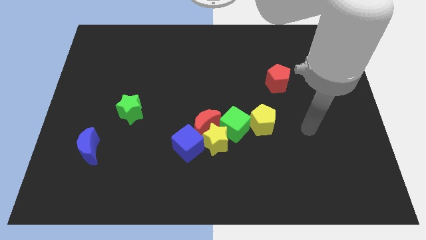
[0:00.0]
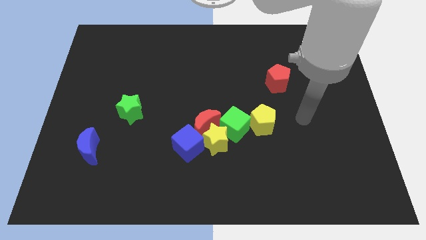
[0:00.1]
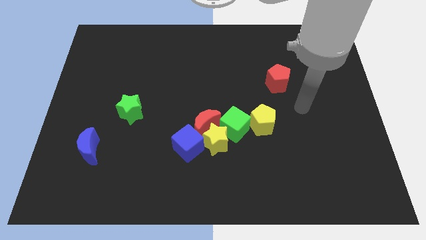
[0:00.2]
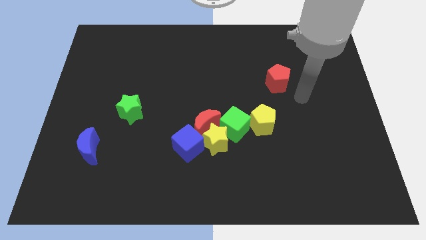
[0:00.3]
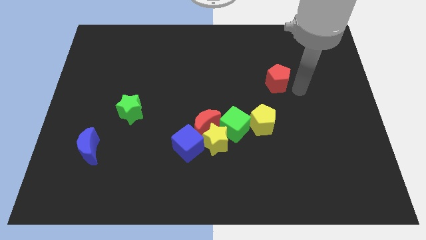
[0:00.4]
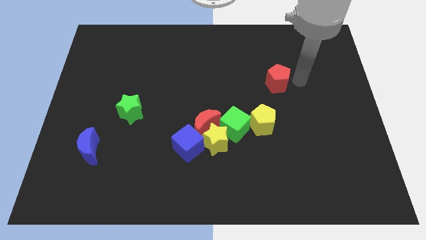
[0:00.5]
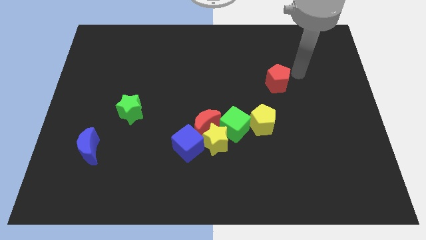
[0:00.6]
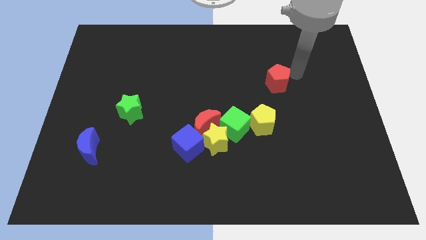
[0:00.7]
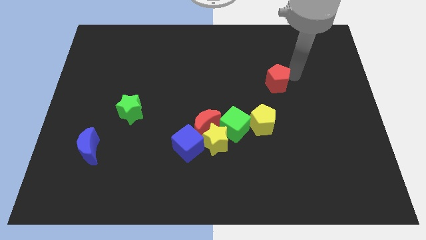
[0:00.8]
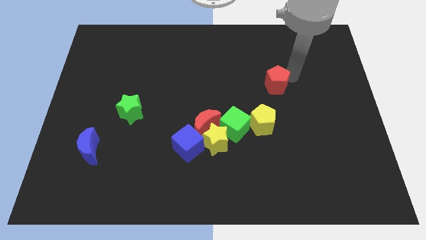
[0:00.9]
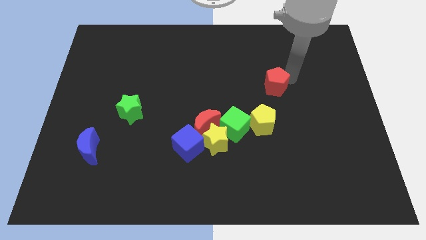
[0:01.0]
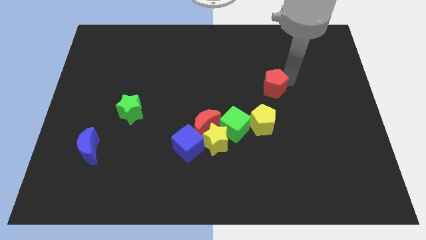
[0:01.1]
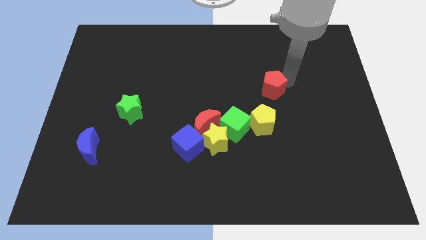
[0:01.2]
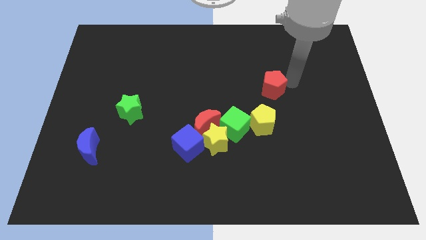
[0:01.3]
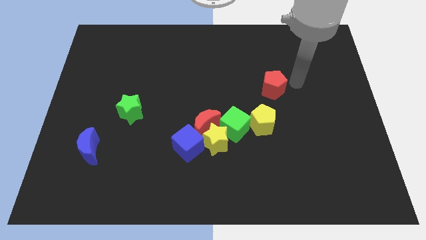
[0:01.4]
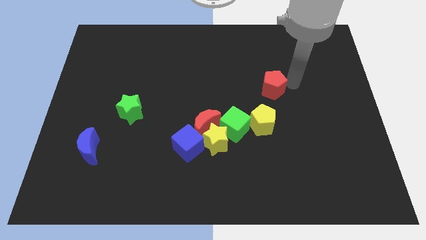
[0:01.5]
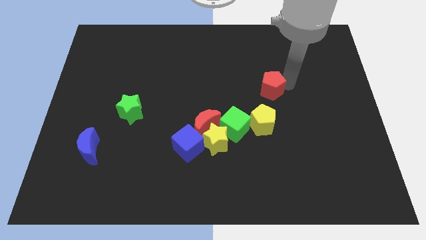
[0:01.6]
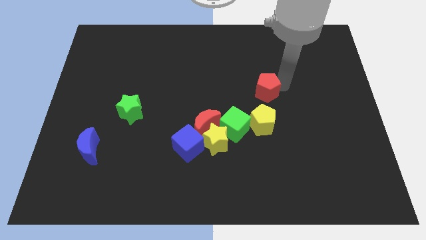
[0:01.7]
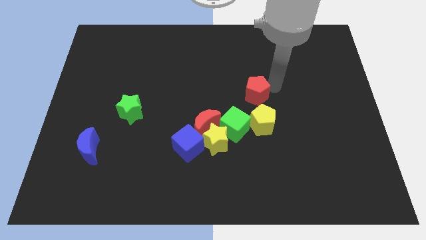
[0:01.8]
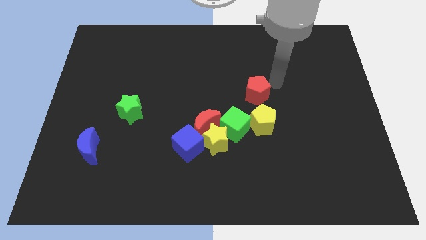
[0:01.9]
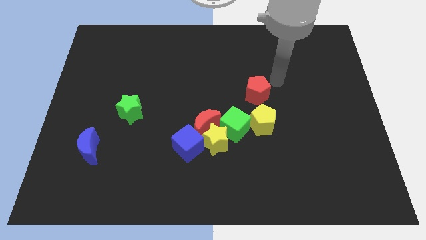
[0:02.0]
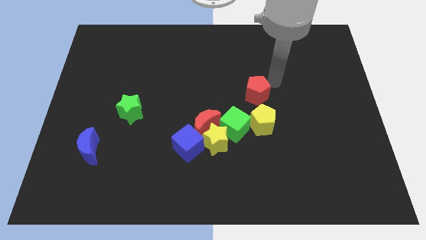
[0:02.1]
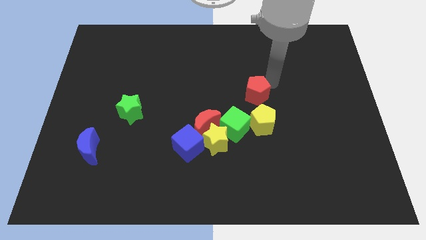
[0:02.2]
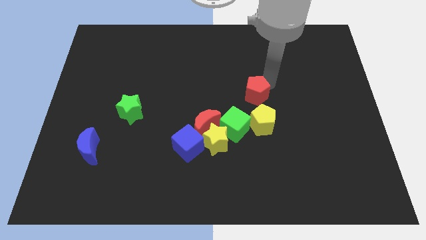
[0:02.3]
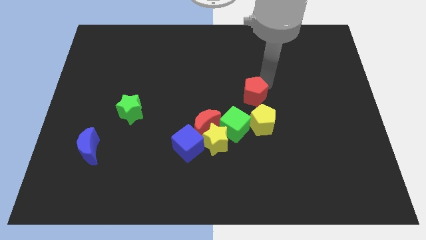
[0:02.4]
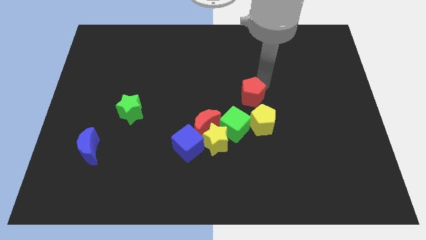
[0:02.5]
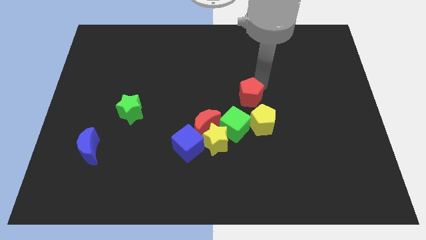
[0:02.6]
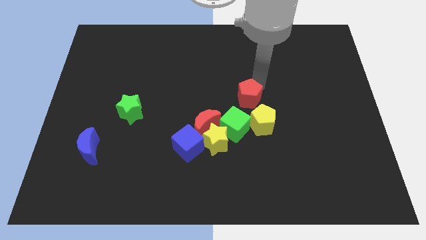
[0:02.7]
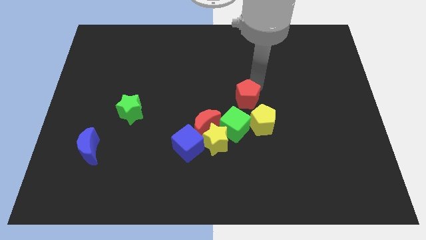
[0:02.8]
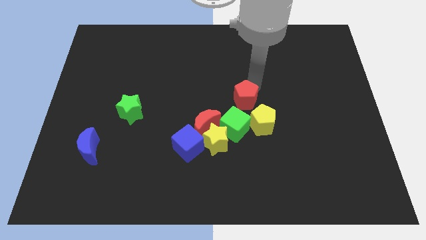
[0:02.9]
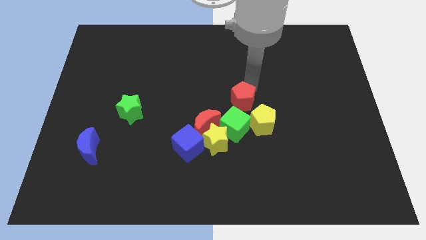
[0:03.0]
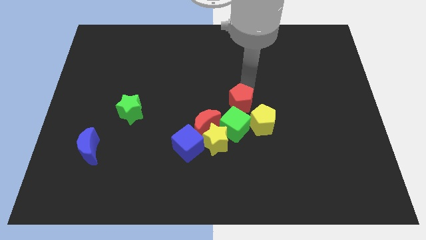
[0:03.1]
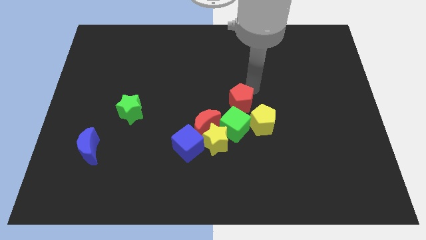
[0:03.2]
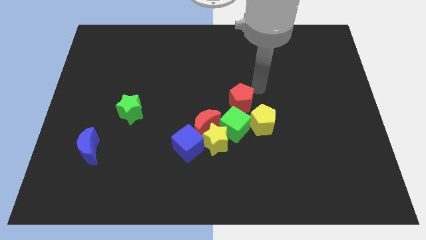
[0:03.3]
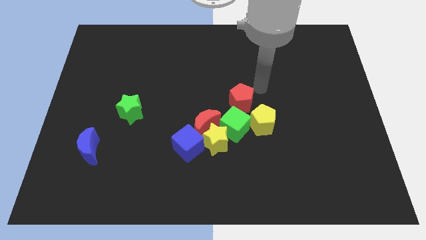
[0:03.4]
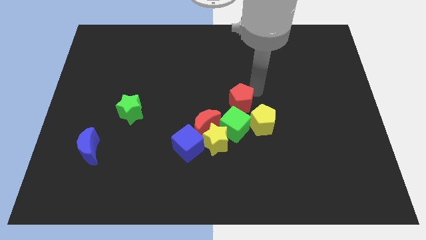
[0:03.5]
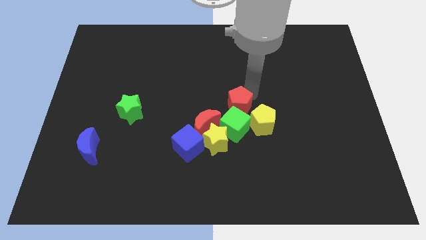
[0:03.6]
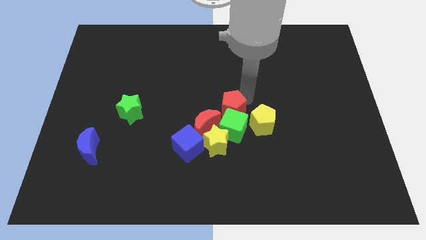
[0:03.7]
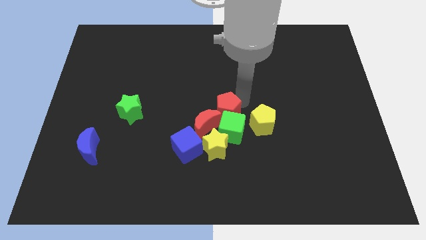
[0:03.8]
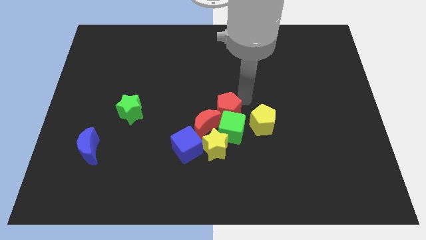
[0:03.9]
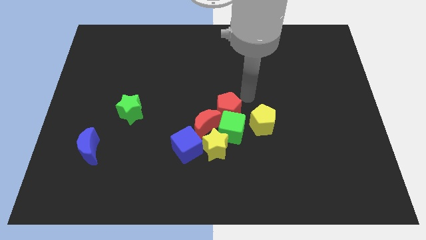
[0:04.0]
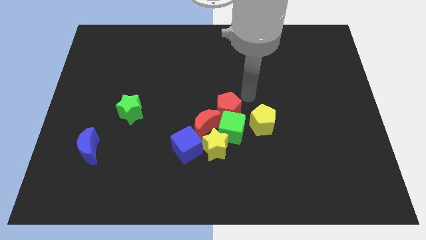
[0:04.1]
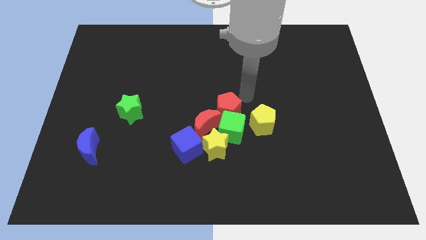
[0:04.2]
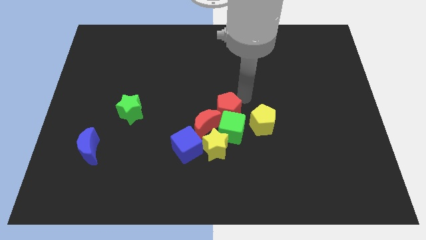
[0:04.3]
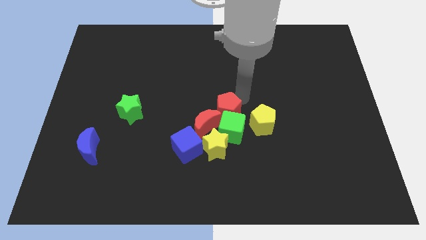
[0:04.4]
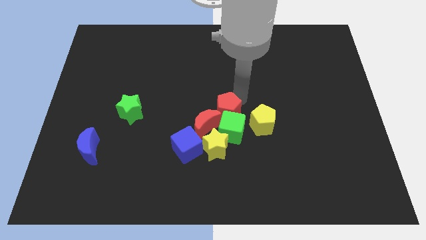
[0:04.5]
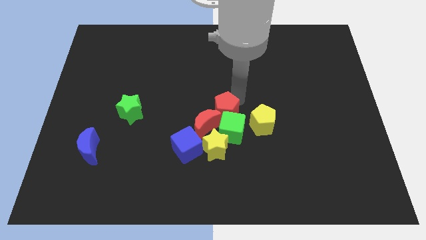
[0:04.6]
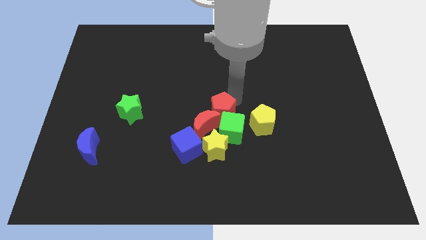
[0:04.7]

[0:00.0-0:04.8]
push the red pentagon next to the red moon

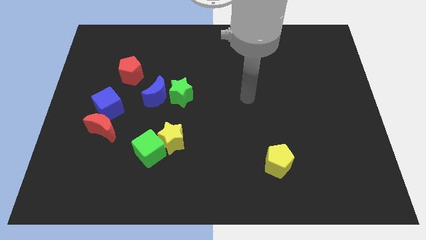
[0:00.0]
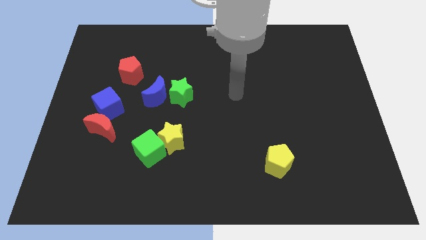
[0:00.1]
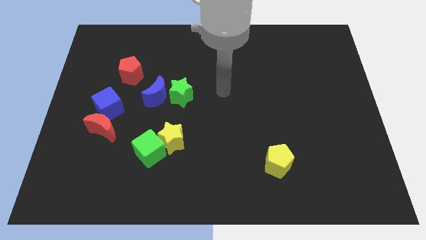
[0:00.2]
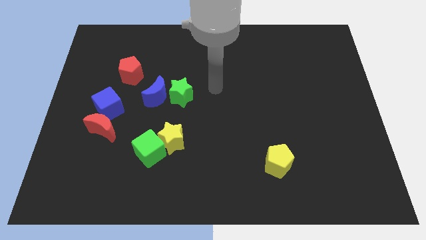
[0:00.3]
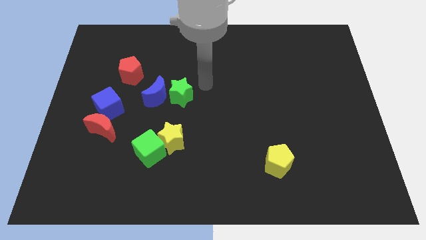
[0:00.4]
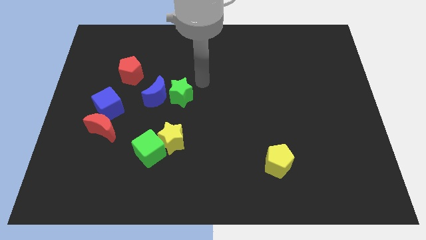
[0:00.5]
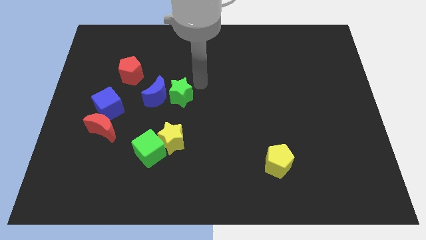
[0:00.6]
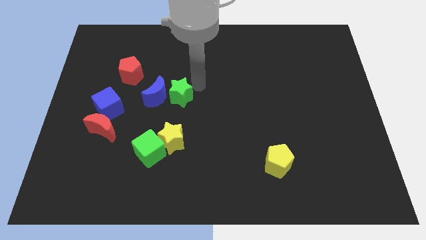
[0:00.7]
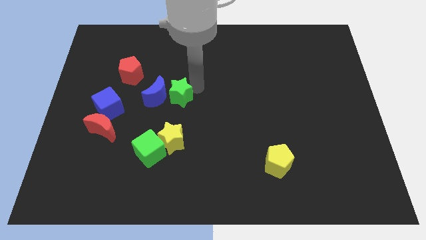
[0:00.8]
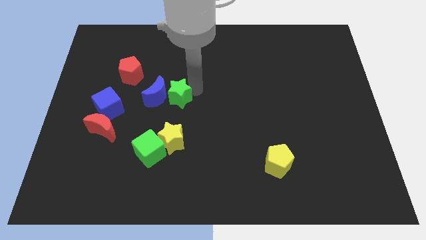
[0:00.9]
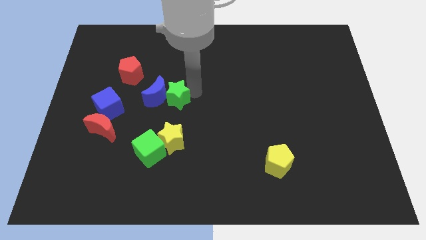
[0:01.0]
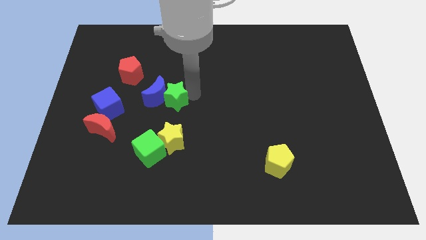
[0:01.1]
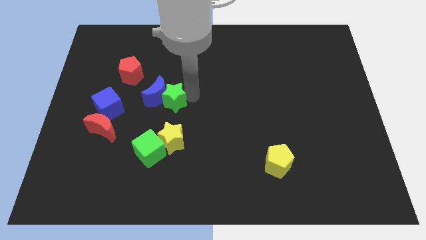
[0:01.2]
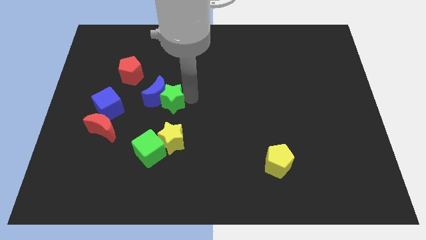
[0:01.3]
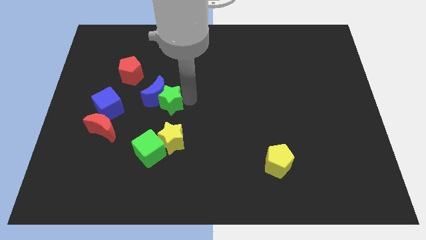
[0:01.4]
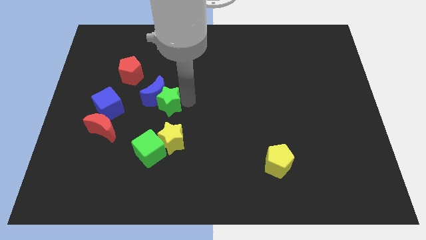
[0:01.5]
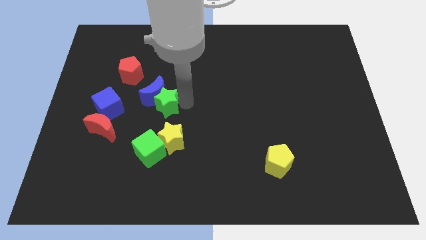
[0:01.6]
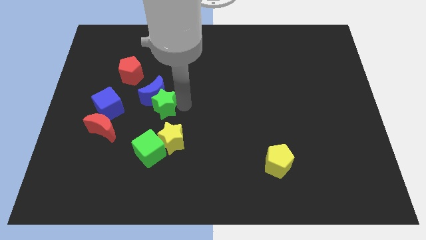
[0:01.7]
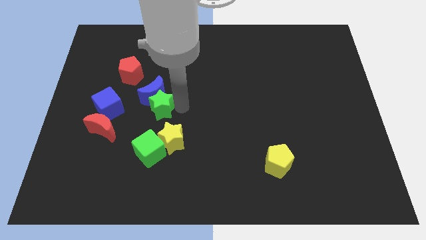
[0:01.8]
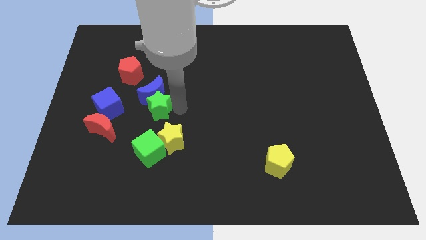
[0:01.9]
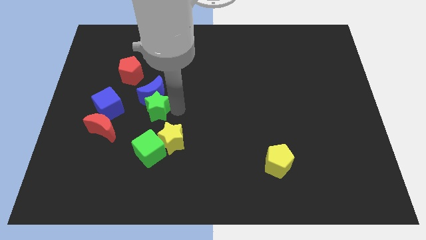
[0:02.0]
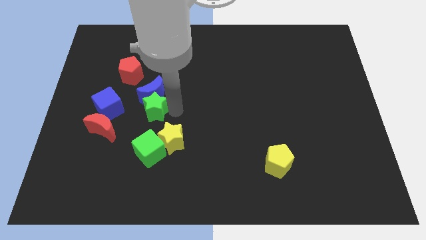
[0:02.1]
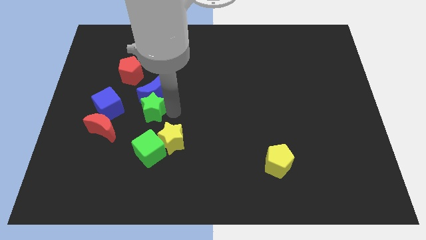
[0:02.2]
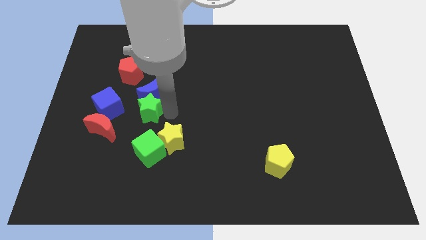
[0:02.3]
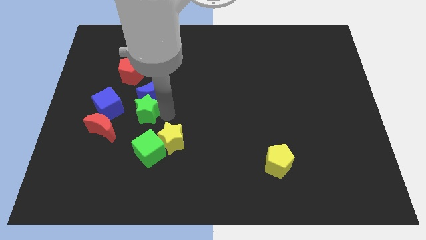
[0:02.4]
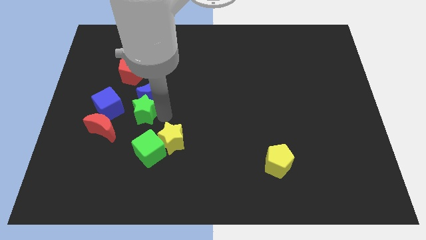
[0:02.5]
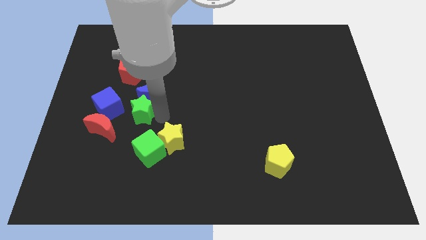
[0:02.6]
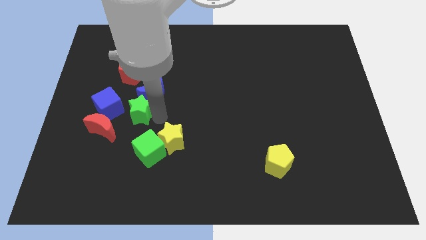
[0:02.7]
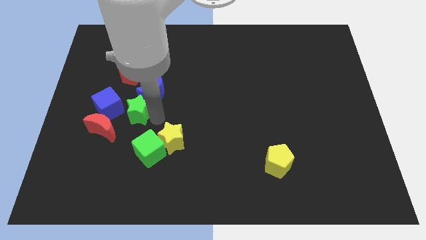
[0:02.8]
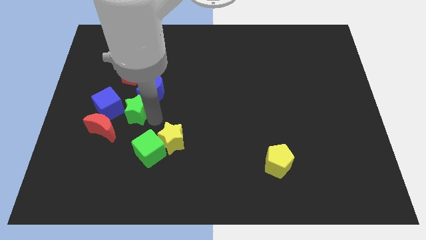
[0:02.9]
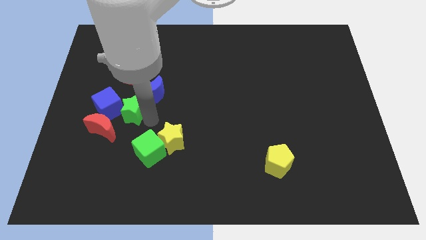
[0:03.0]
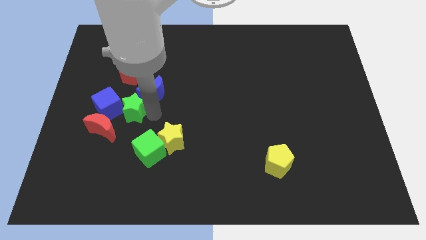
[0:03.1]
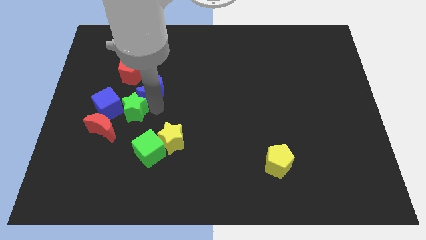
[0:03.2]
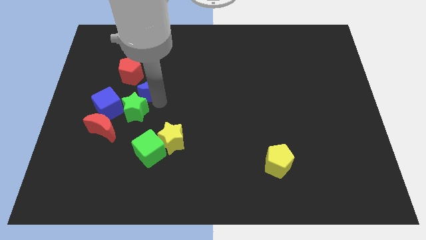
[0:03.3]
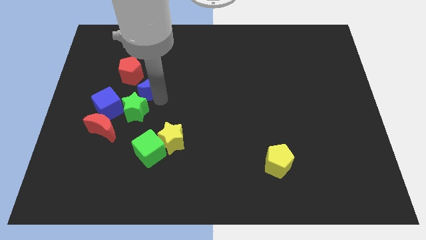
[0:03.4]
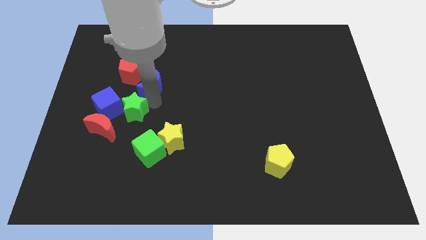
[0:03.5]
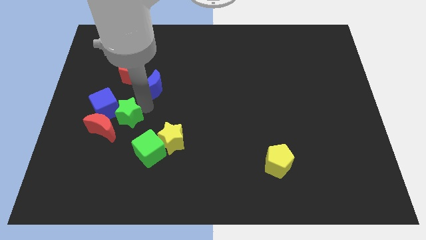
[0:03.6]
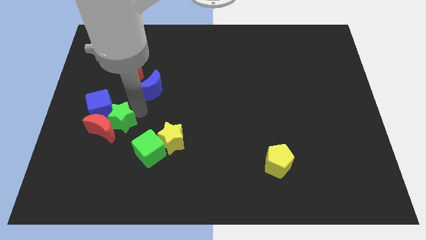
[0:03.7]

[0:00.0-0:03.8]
push the green star close to the red moon
